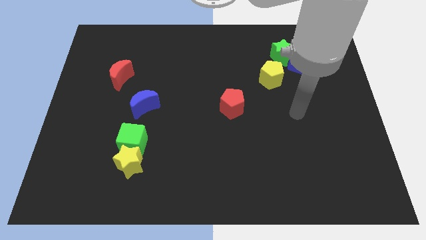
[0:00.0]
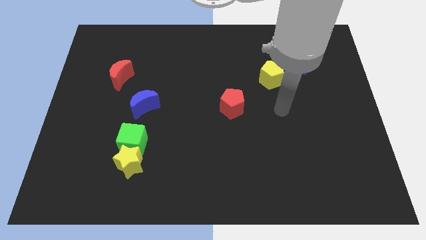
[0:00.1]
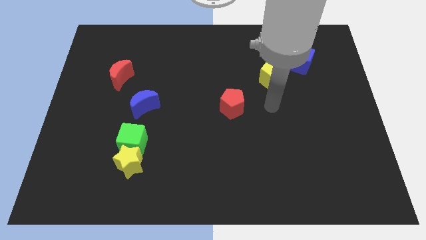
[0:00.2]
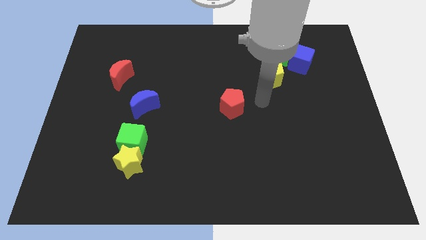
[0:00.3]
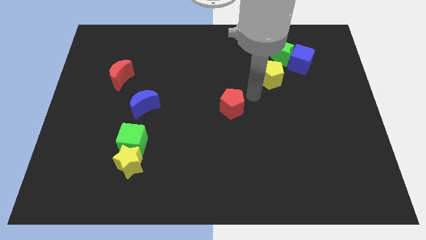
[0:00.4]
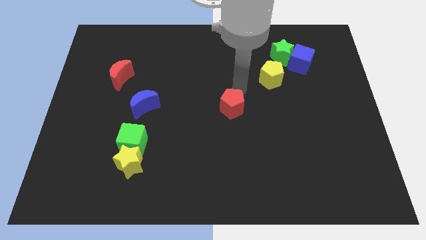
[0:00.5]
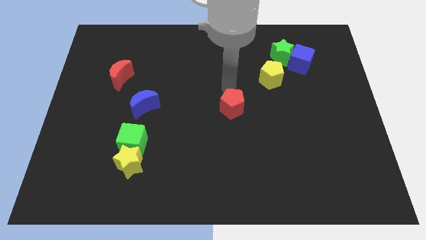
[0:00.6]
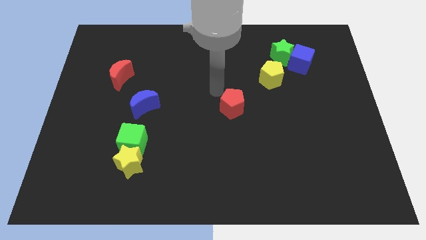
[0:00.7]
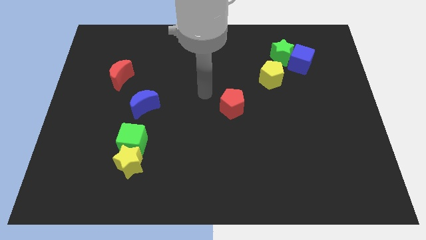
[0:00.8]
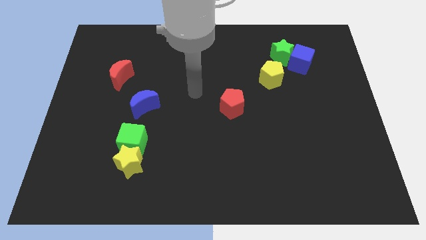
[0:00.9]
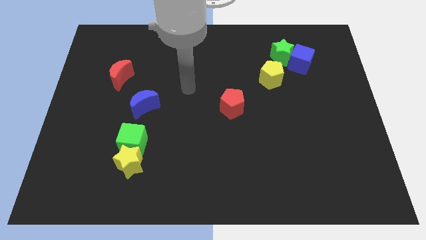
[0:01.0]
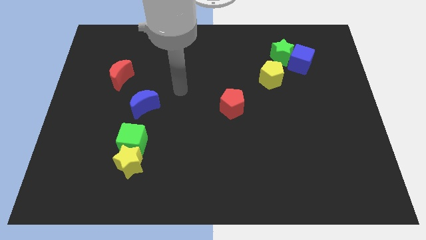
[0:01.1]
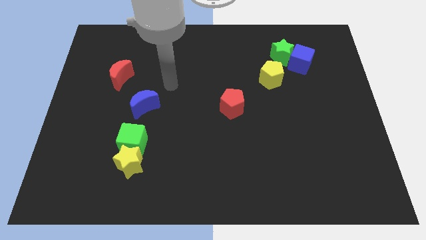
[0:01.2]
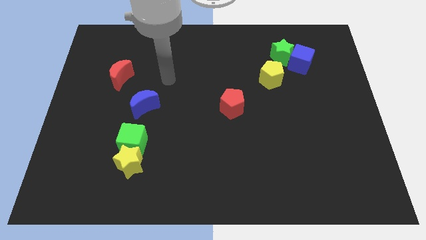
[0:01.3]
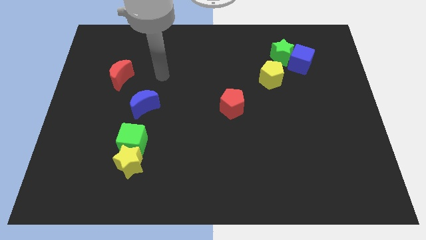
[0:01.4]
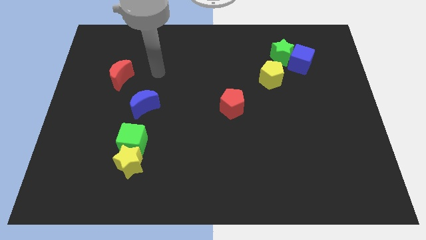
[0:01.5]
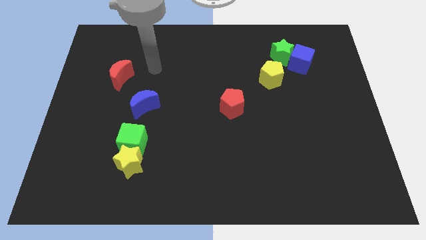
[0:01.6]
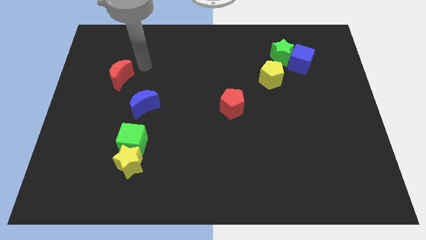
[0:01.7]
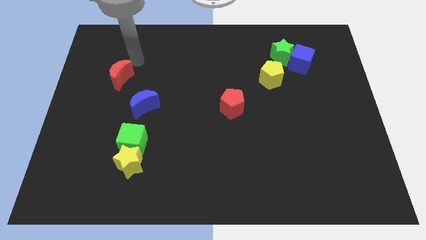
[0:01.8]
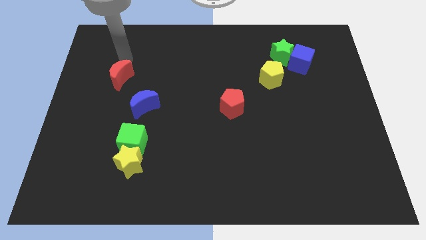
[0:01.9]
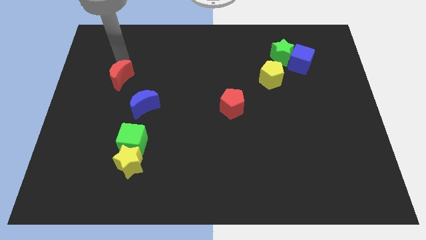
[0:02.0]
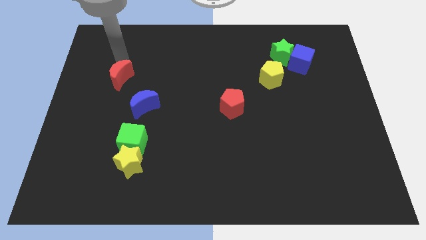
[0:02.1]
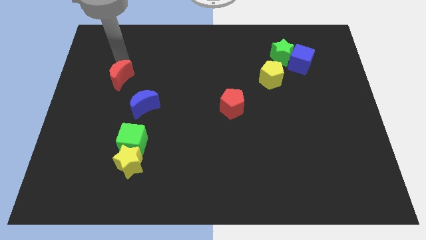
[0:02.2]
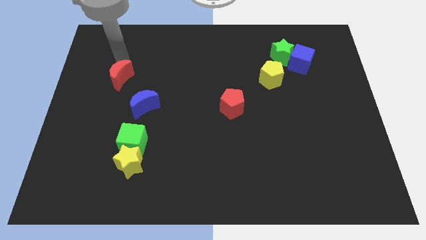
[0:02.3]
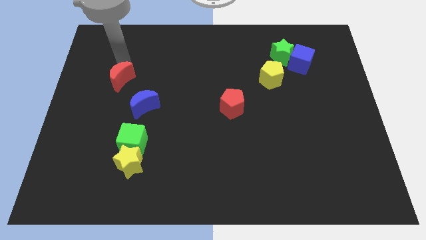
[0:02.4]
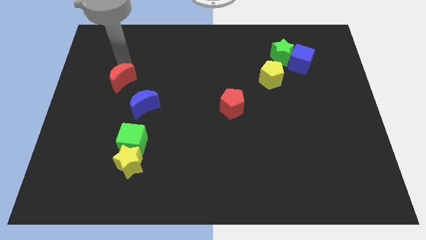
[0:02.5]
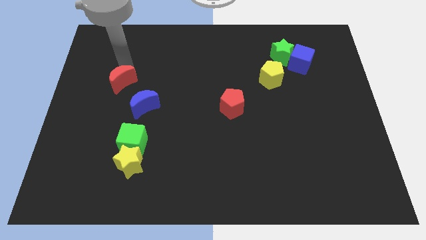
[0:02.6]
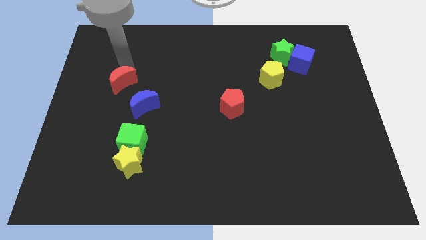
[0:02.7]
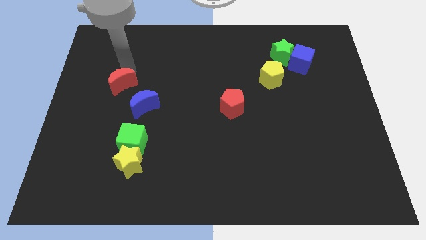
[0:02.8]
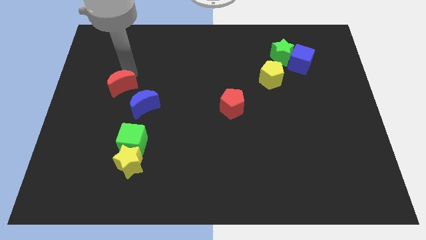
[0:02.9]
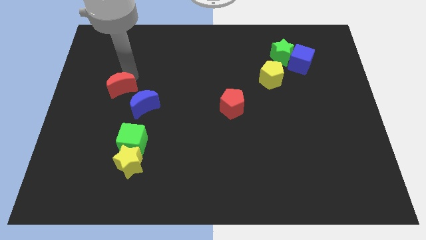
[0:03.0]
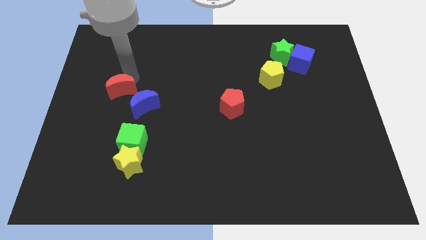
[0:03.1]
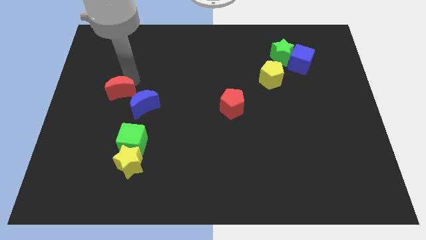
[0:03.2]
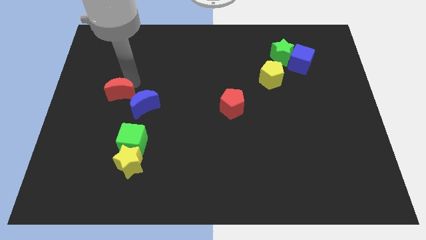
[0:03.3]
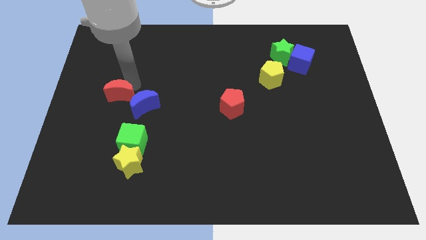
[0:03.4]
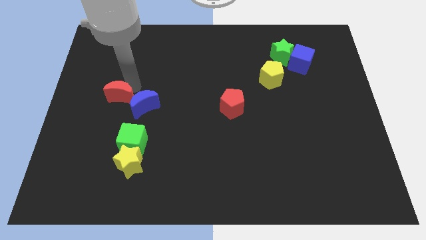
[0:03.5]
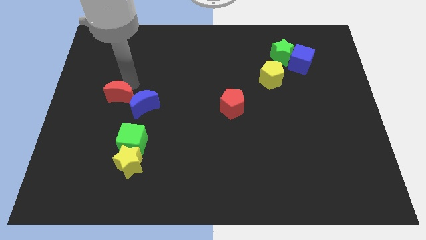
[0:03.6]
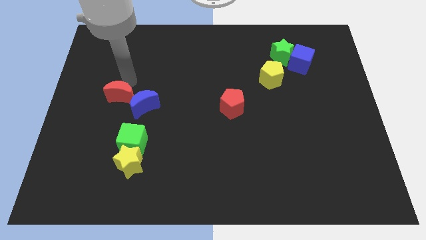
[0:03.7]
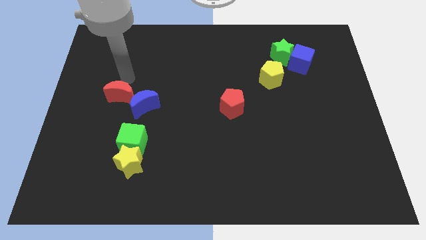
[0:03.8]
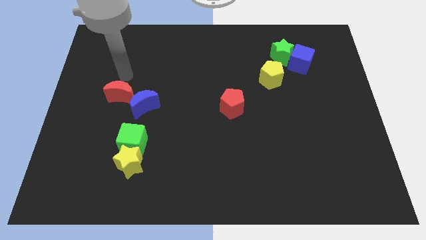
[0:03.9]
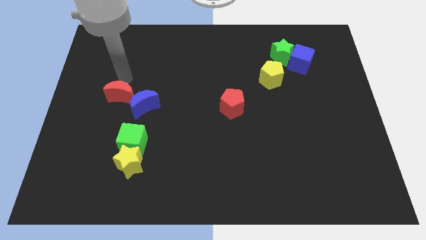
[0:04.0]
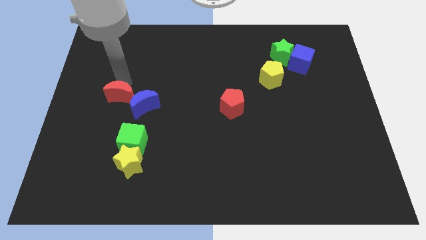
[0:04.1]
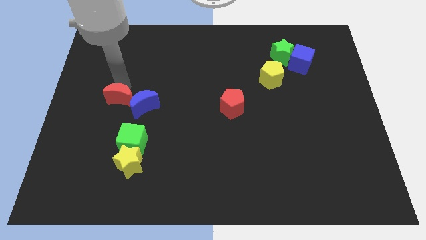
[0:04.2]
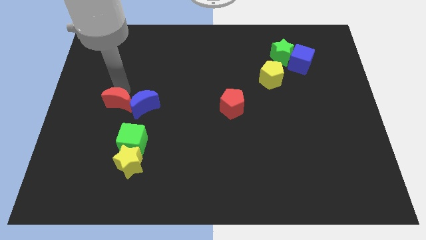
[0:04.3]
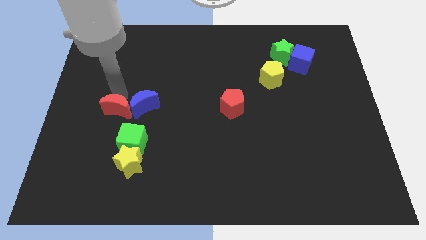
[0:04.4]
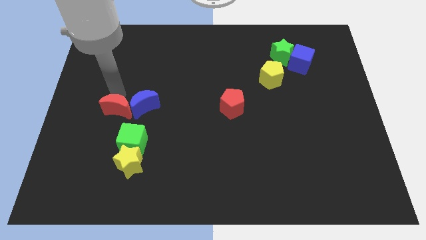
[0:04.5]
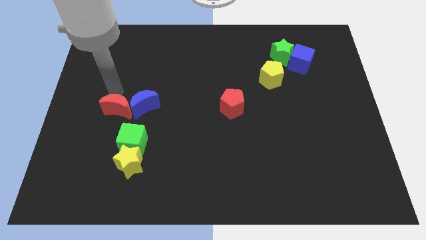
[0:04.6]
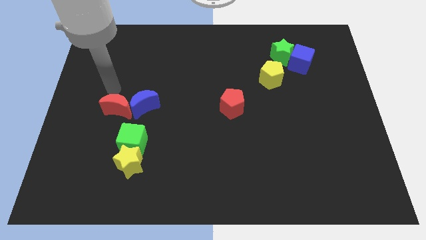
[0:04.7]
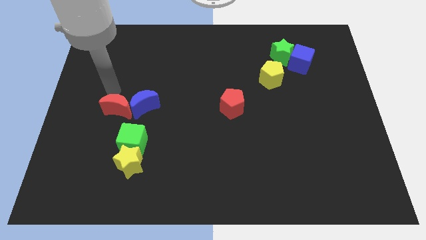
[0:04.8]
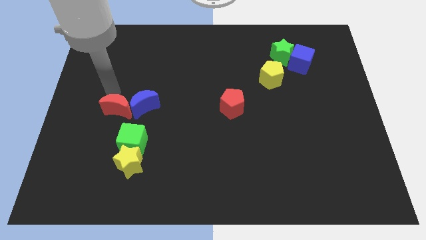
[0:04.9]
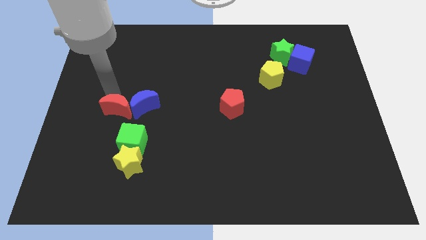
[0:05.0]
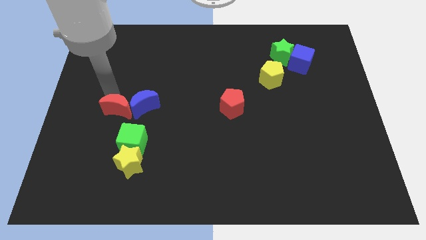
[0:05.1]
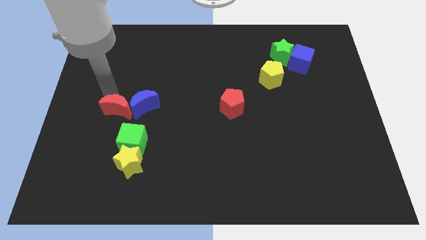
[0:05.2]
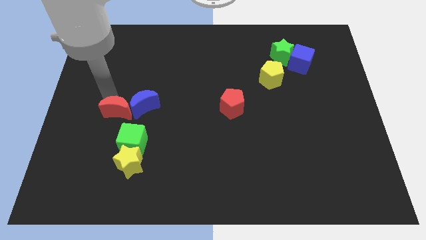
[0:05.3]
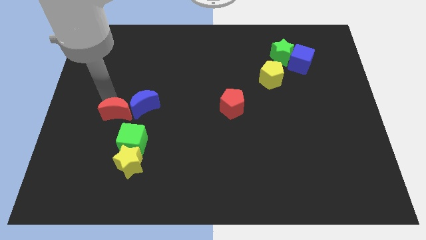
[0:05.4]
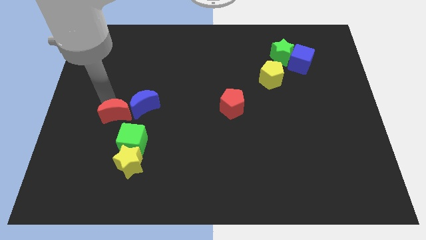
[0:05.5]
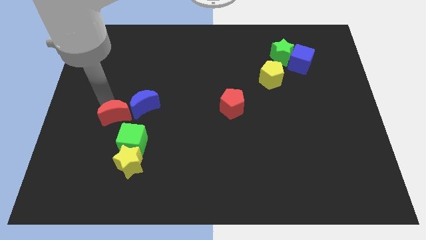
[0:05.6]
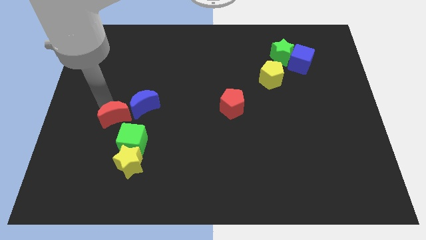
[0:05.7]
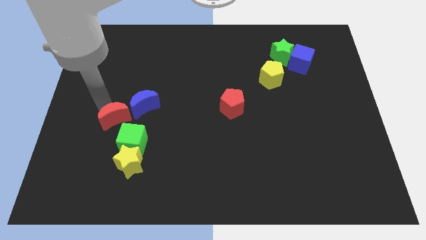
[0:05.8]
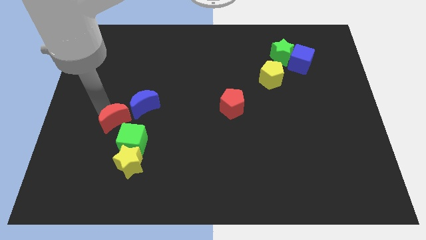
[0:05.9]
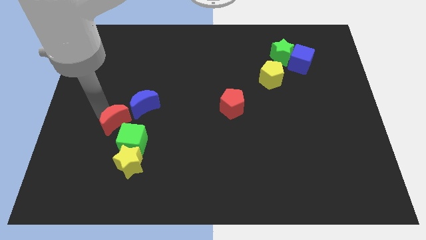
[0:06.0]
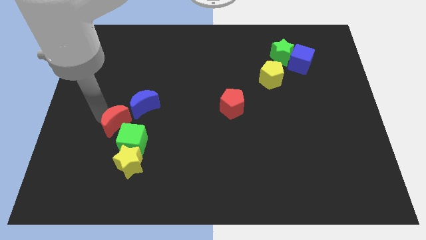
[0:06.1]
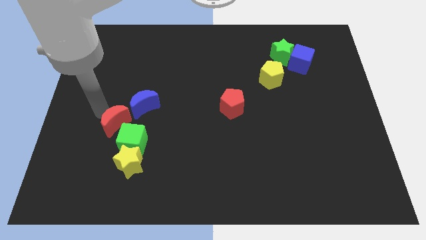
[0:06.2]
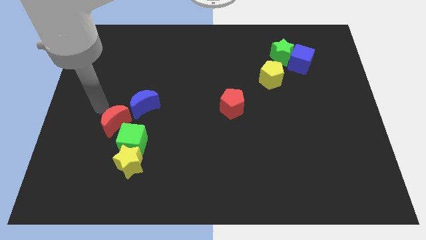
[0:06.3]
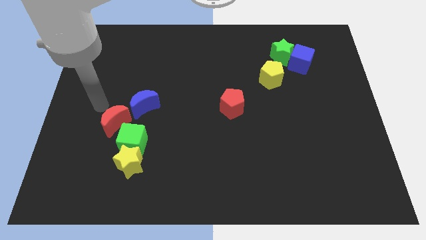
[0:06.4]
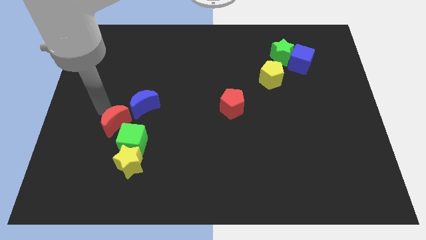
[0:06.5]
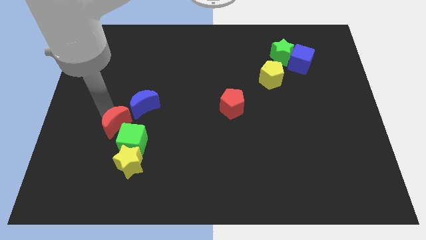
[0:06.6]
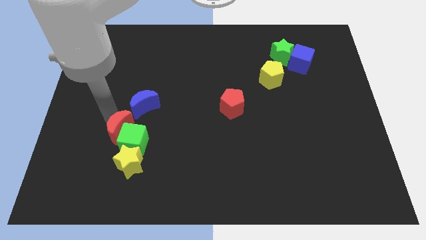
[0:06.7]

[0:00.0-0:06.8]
push the red moon to the green cube
